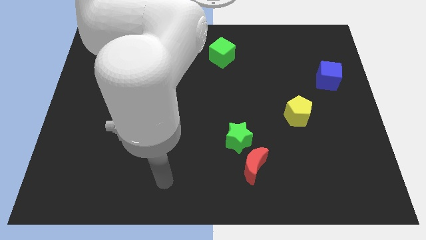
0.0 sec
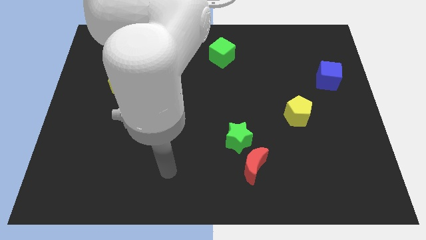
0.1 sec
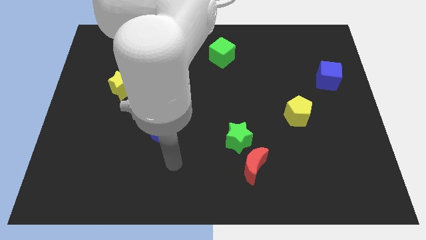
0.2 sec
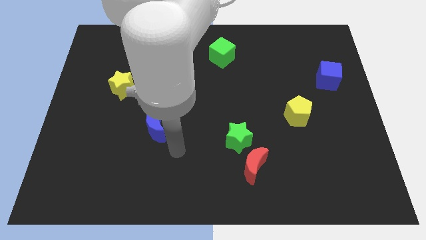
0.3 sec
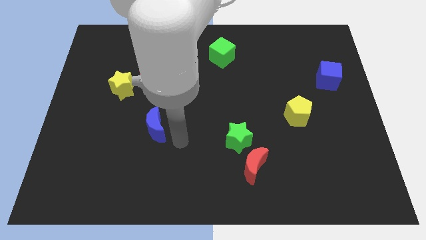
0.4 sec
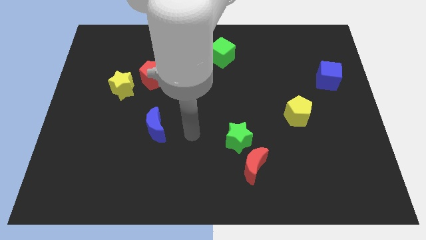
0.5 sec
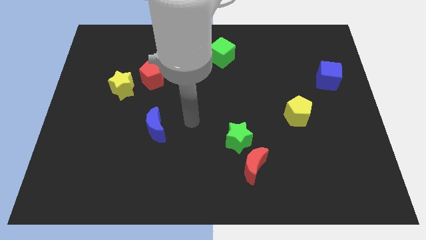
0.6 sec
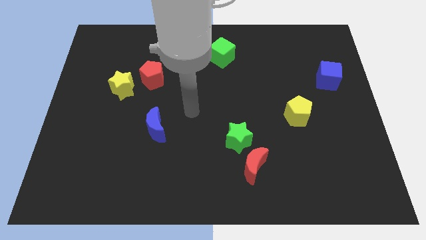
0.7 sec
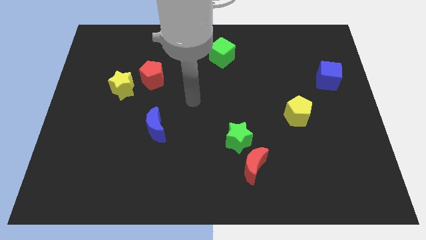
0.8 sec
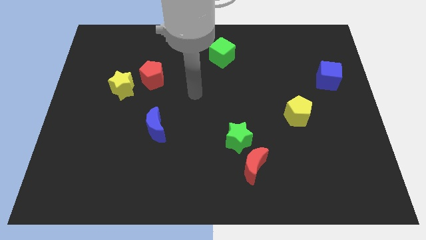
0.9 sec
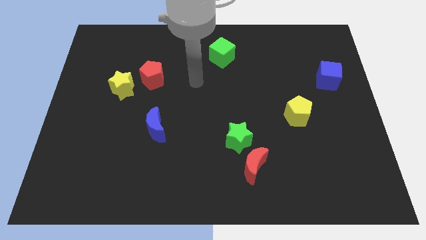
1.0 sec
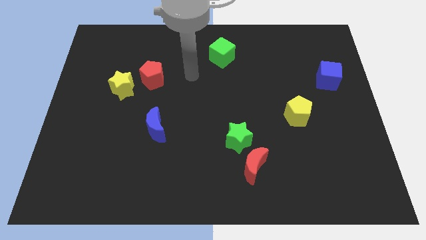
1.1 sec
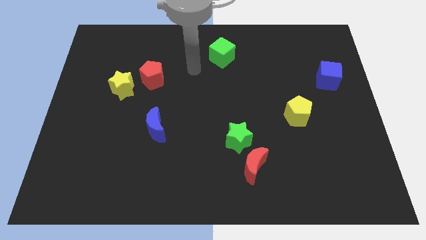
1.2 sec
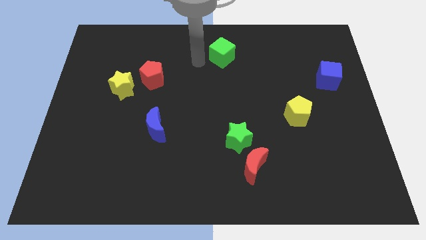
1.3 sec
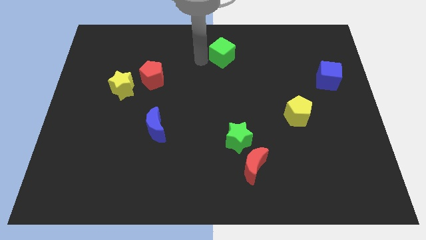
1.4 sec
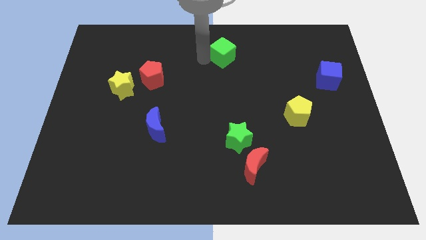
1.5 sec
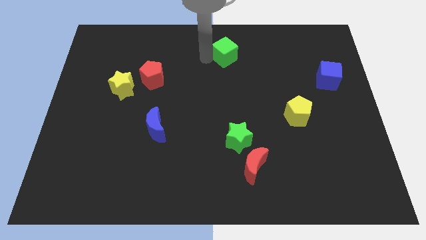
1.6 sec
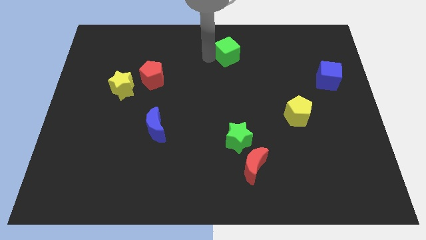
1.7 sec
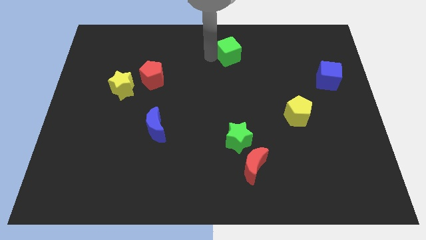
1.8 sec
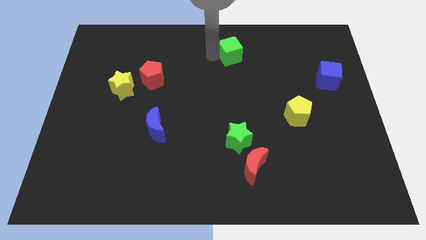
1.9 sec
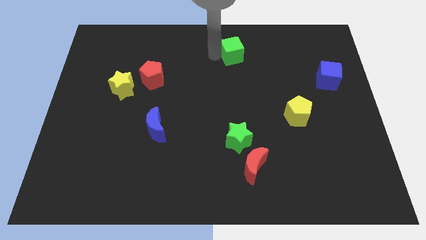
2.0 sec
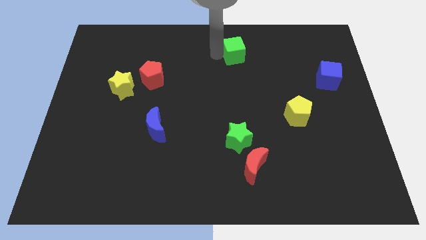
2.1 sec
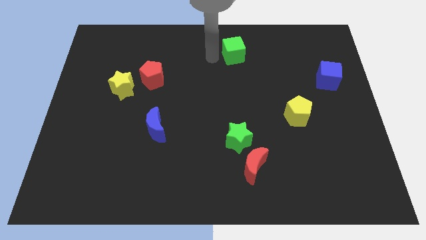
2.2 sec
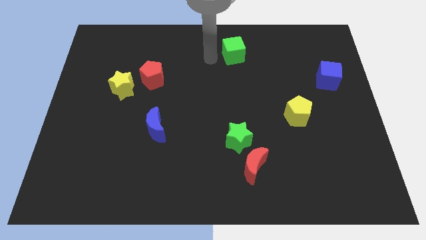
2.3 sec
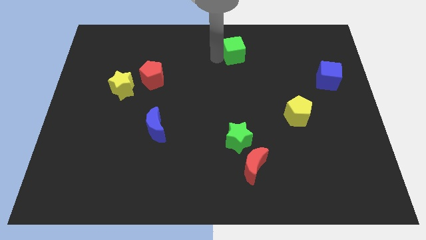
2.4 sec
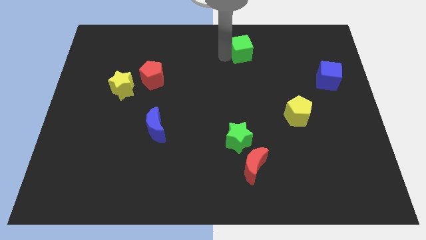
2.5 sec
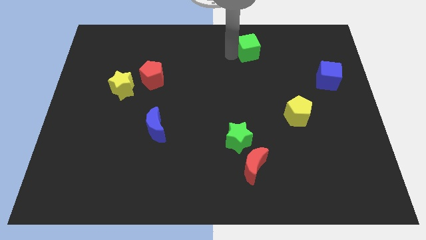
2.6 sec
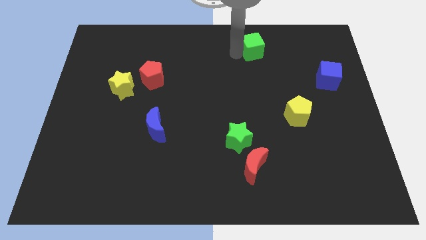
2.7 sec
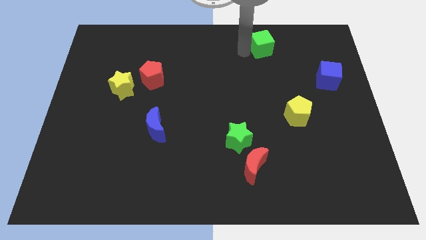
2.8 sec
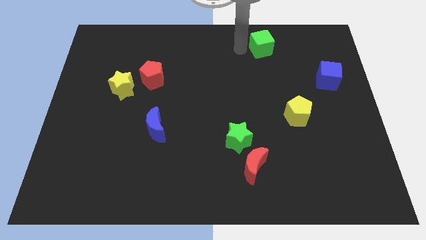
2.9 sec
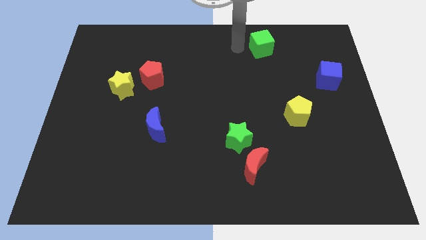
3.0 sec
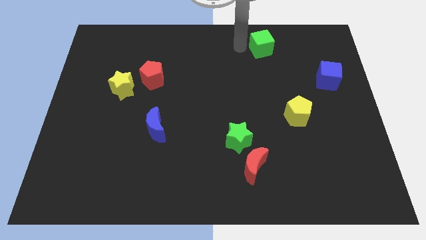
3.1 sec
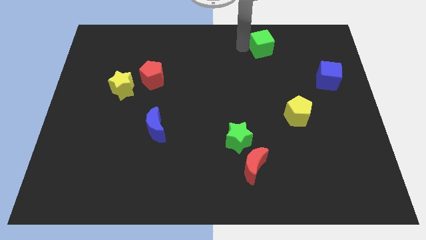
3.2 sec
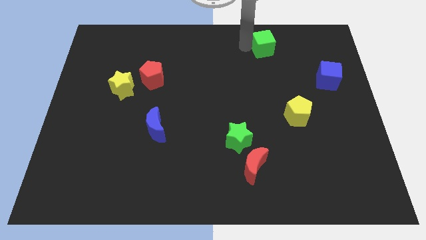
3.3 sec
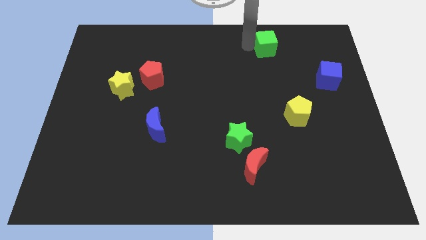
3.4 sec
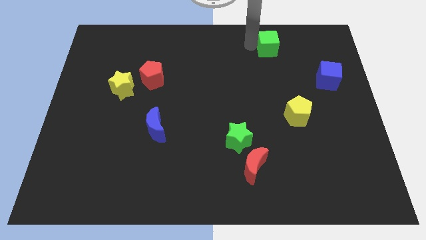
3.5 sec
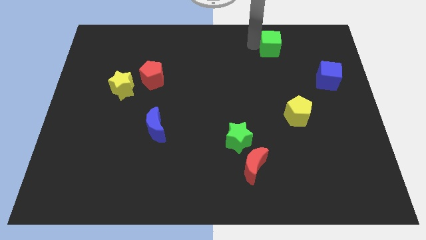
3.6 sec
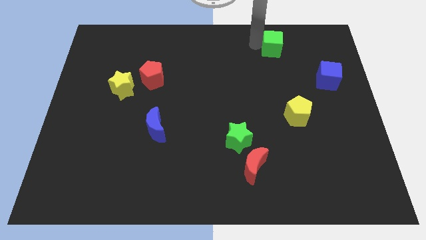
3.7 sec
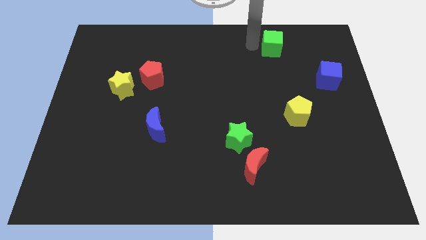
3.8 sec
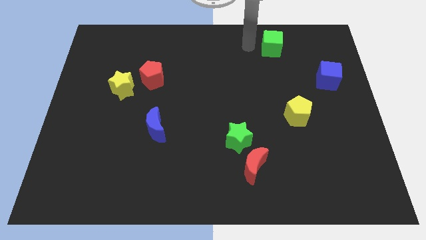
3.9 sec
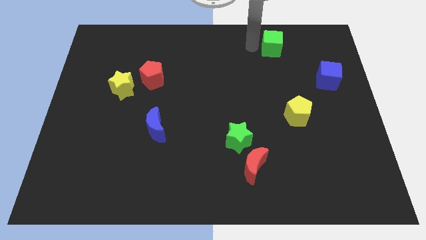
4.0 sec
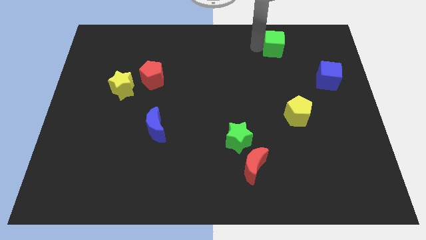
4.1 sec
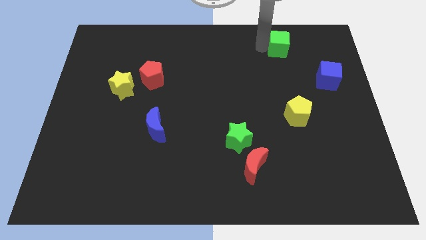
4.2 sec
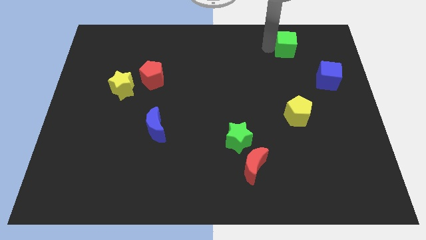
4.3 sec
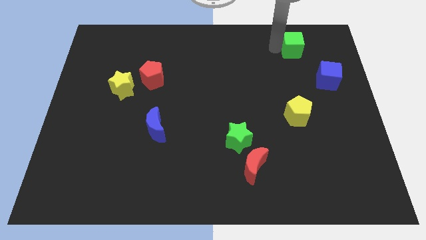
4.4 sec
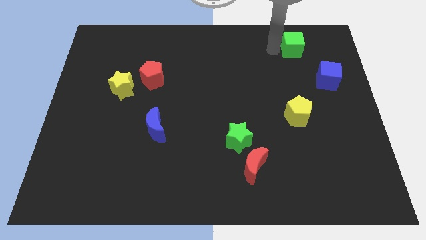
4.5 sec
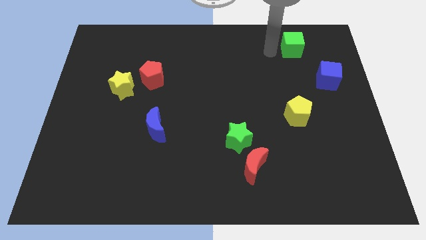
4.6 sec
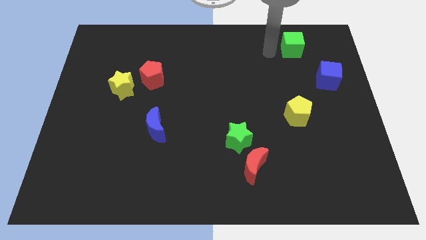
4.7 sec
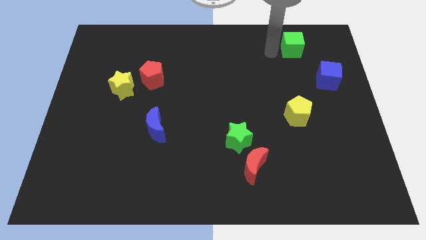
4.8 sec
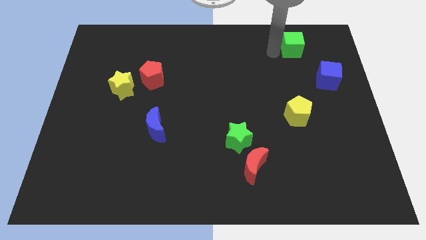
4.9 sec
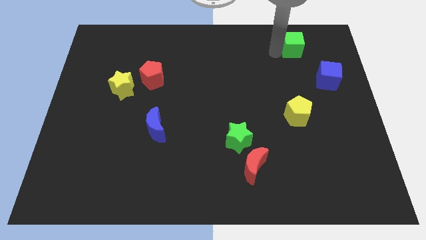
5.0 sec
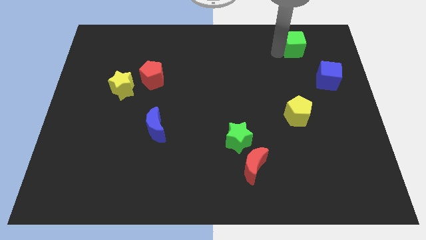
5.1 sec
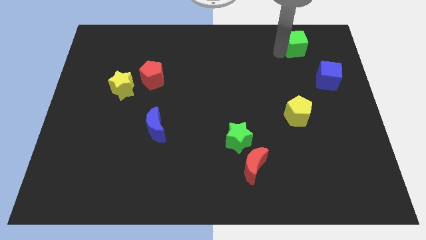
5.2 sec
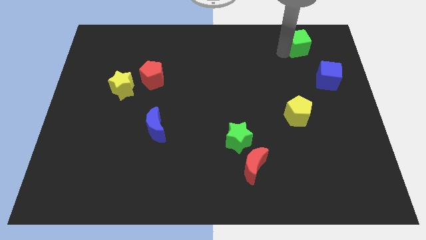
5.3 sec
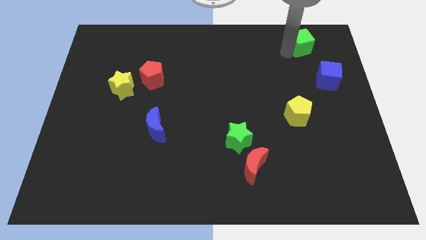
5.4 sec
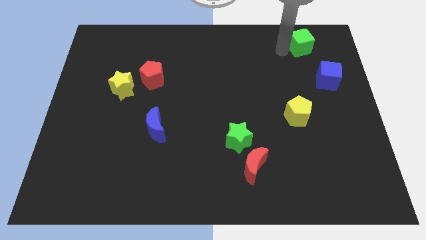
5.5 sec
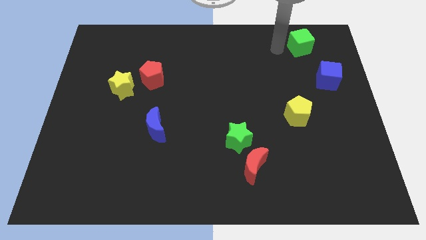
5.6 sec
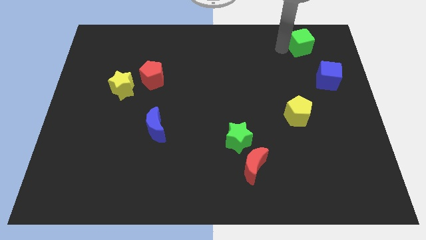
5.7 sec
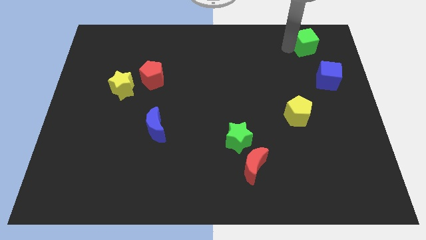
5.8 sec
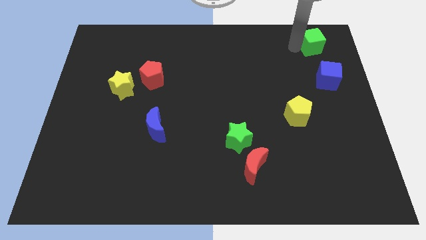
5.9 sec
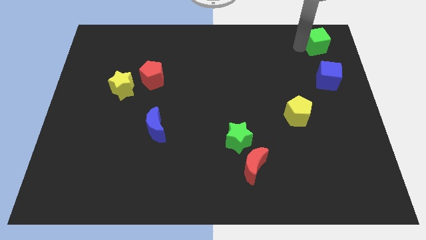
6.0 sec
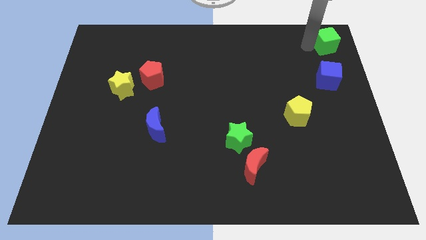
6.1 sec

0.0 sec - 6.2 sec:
slide the green cube to the upper right corner

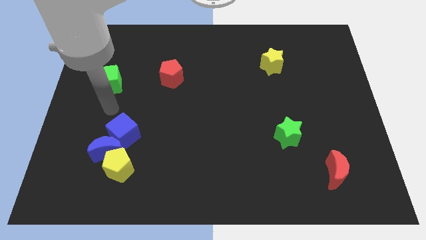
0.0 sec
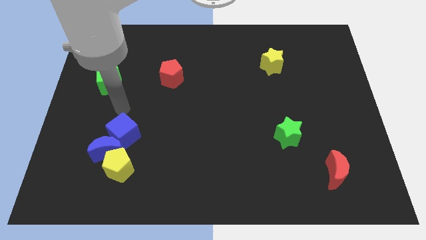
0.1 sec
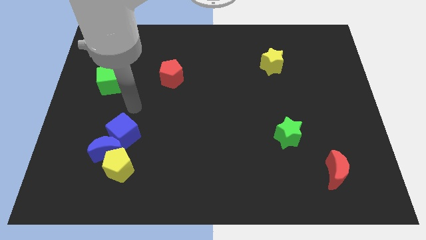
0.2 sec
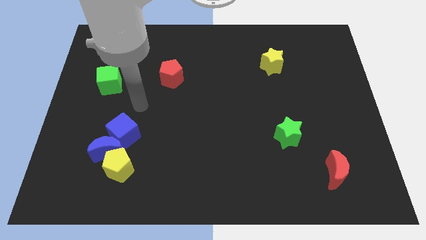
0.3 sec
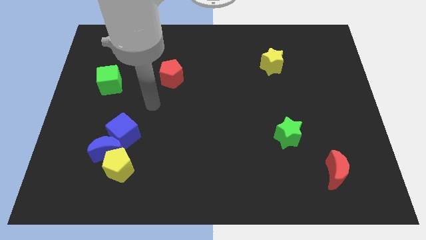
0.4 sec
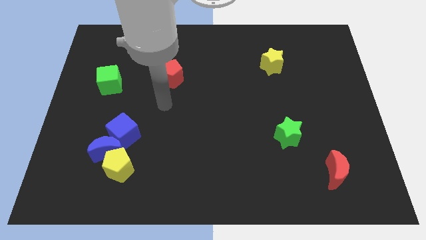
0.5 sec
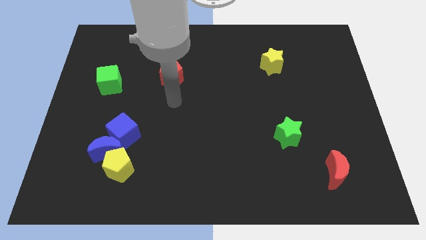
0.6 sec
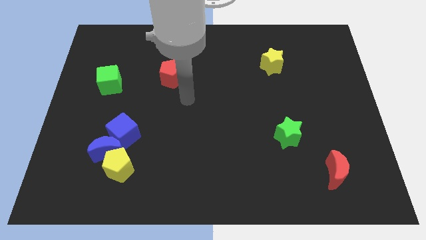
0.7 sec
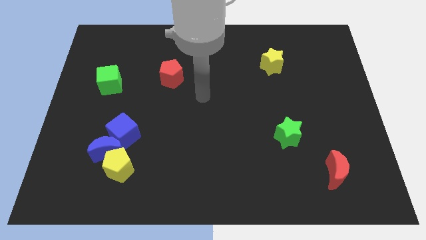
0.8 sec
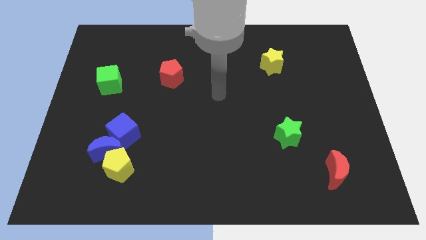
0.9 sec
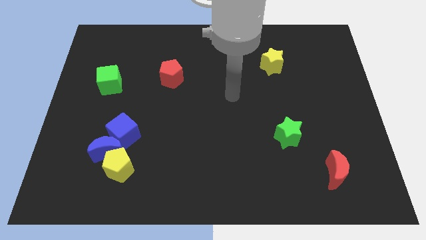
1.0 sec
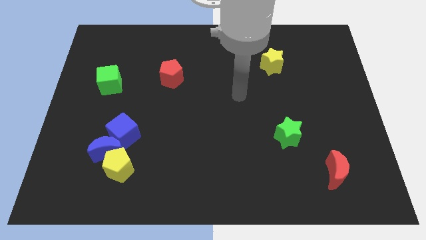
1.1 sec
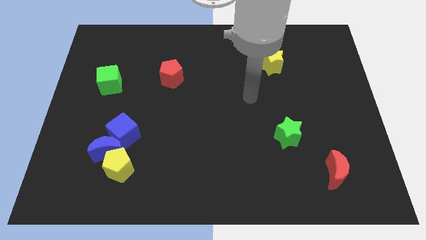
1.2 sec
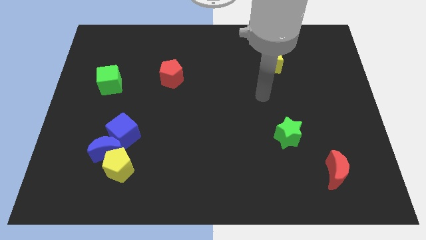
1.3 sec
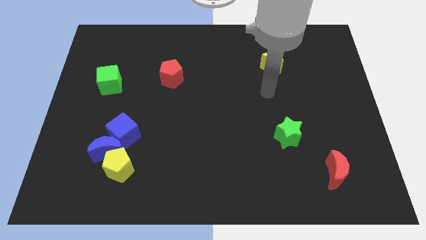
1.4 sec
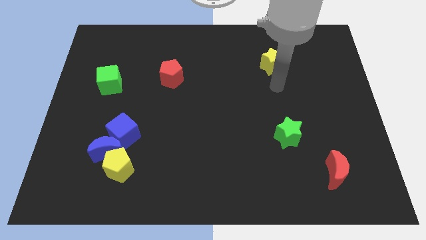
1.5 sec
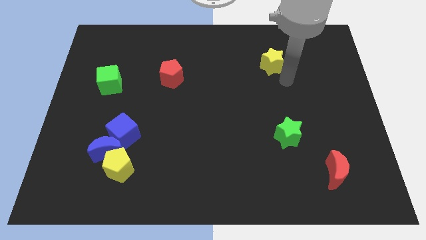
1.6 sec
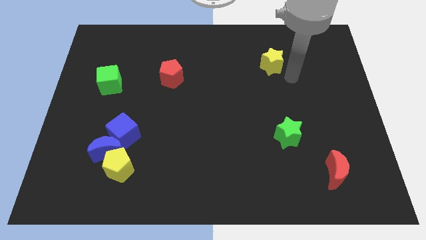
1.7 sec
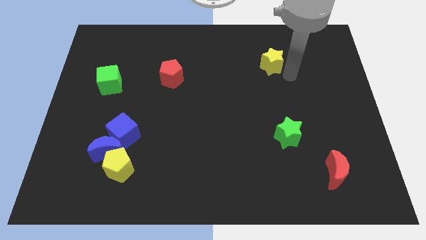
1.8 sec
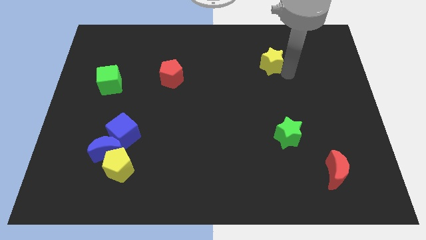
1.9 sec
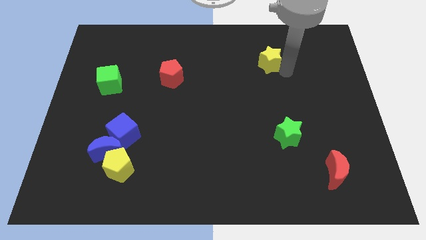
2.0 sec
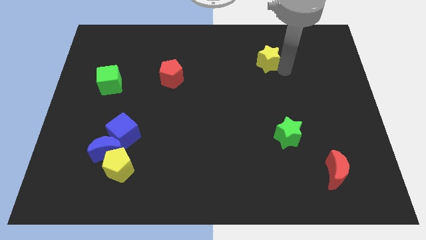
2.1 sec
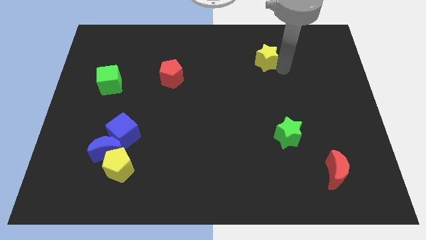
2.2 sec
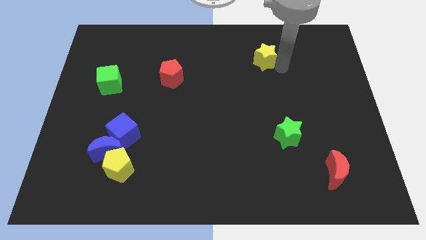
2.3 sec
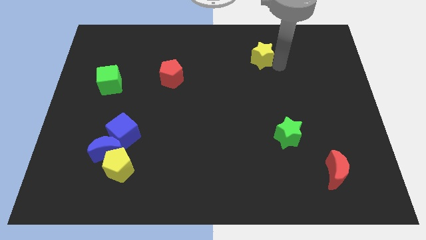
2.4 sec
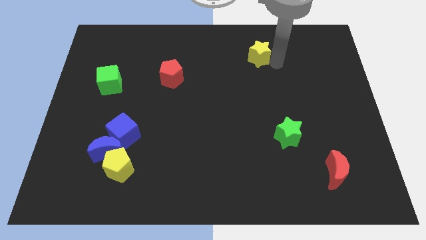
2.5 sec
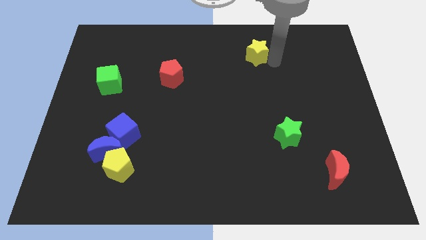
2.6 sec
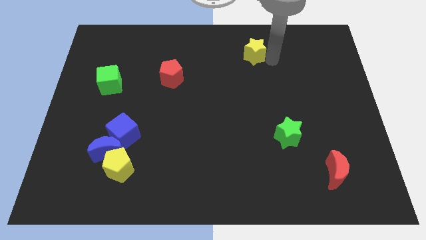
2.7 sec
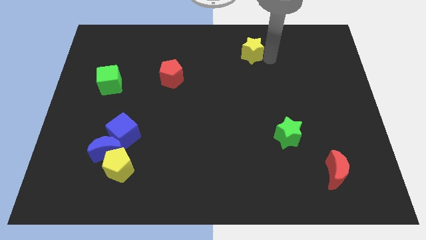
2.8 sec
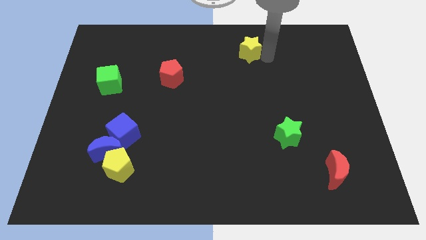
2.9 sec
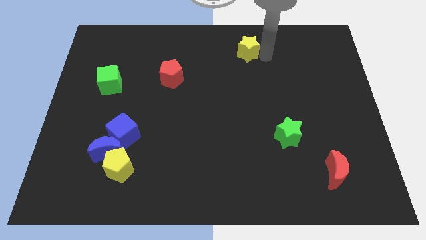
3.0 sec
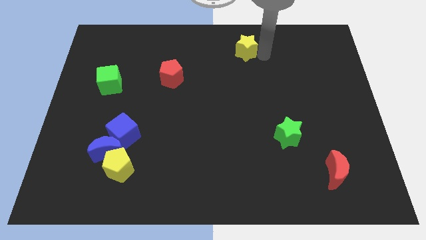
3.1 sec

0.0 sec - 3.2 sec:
put the yellow star to the towards your base
